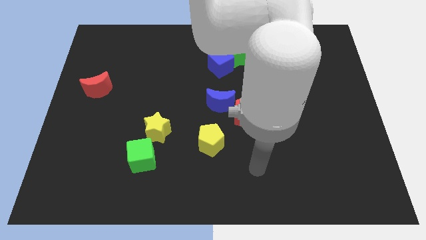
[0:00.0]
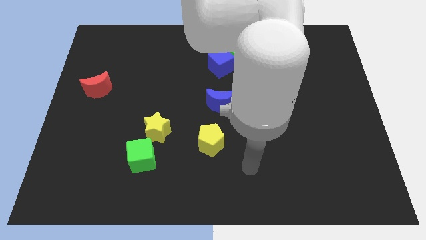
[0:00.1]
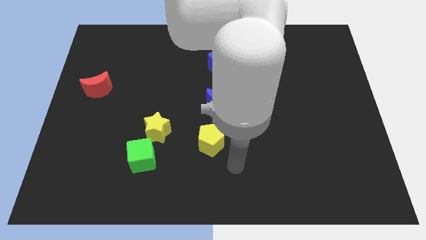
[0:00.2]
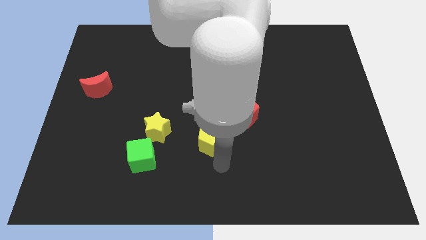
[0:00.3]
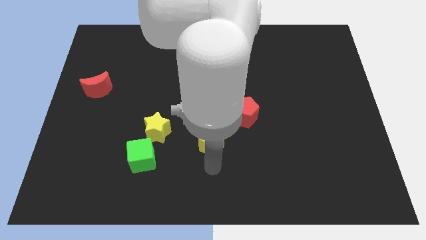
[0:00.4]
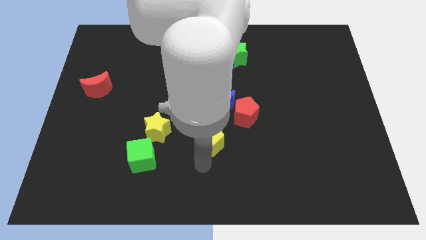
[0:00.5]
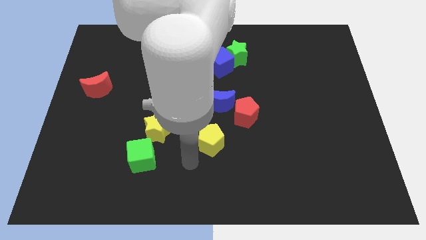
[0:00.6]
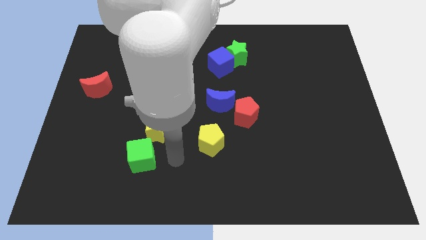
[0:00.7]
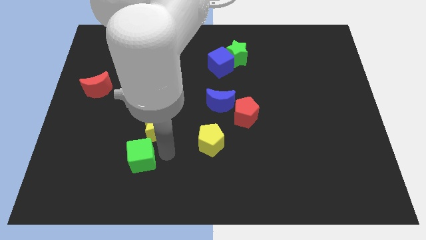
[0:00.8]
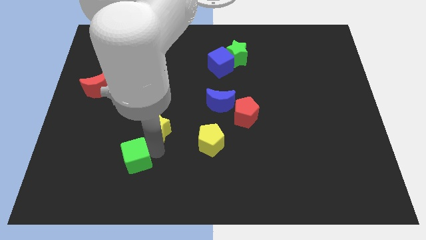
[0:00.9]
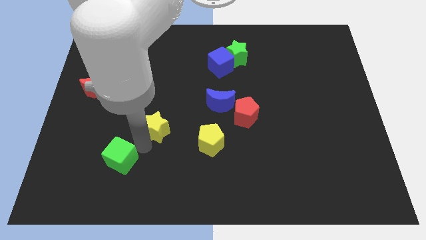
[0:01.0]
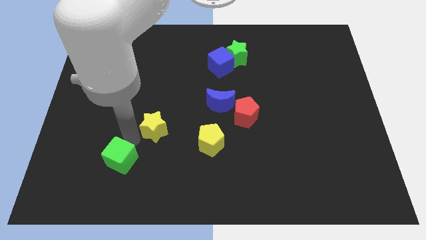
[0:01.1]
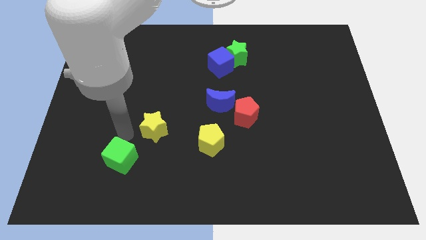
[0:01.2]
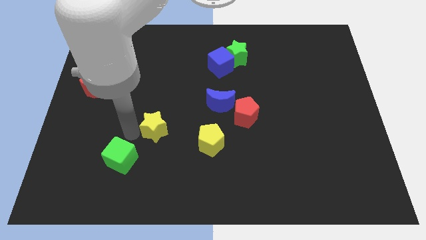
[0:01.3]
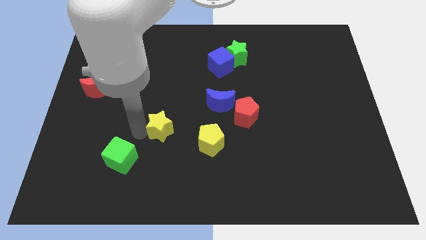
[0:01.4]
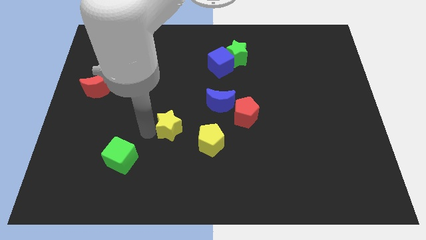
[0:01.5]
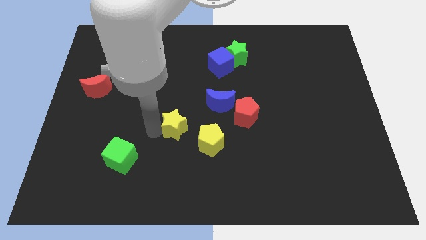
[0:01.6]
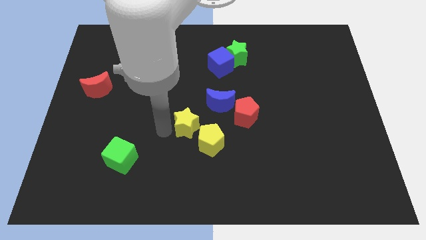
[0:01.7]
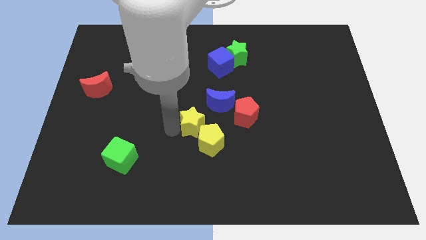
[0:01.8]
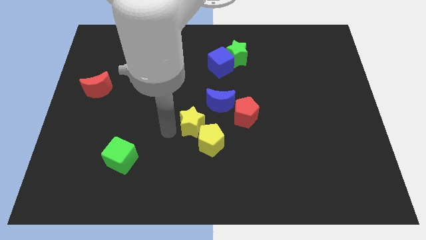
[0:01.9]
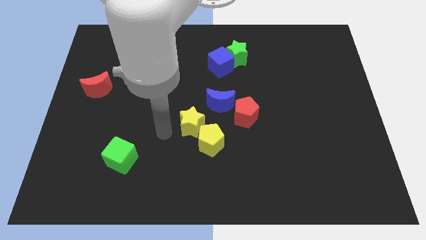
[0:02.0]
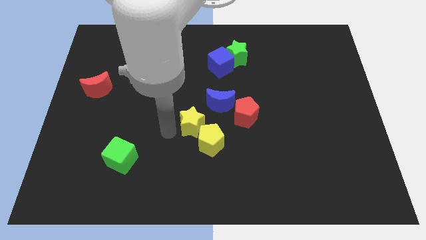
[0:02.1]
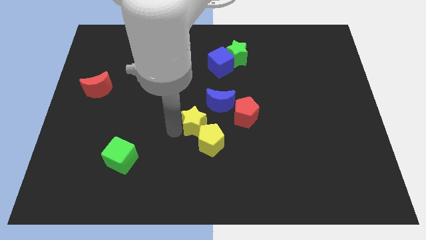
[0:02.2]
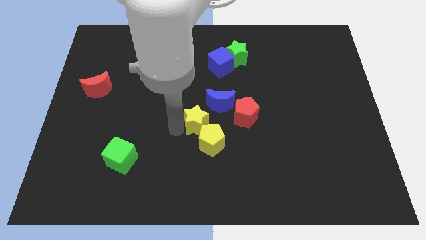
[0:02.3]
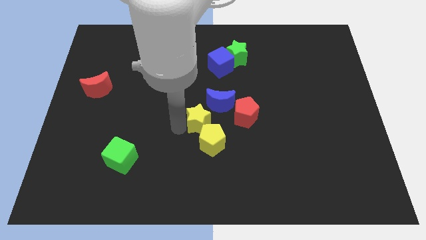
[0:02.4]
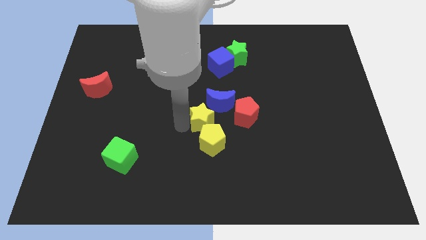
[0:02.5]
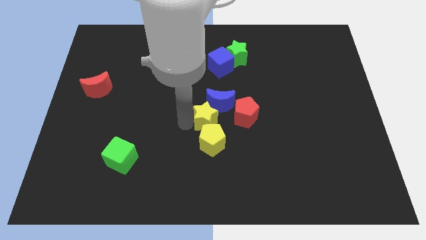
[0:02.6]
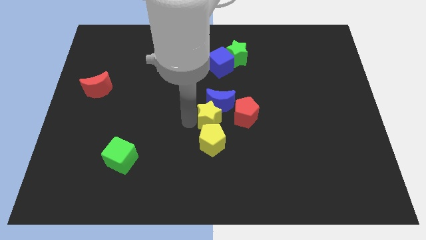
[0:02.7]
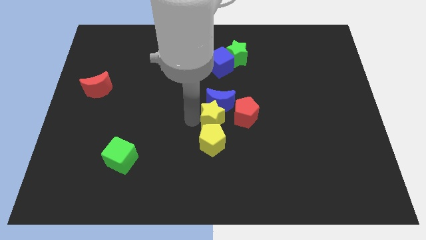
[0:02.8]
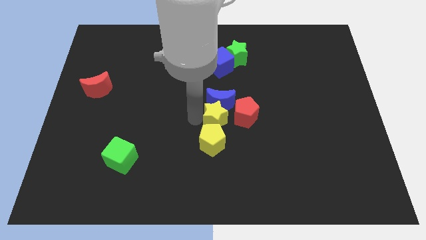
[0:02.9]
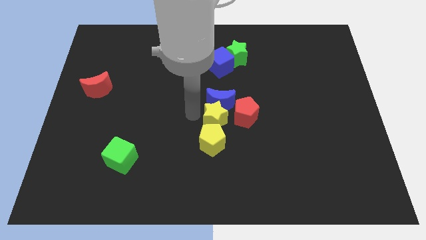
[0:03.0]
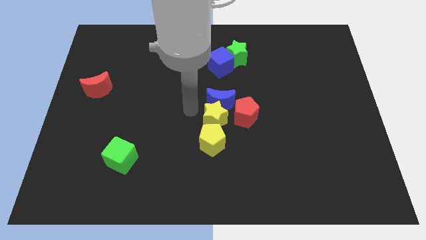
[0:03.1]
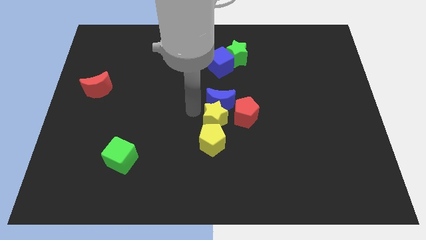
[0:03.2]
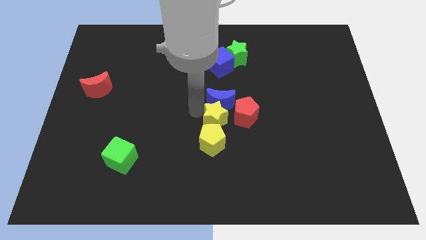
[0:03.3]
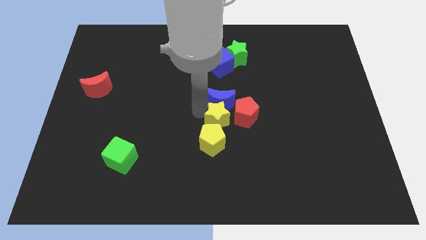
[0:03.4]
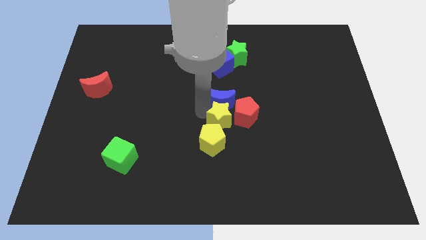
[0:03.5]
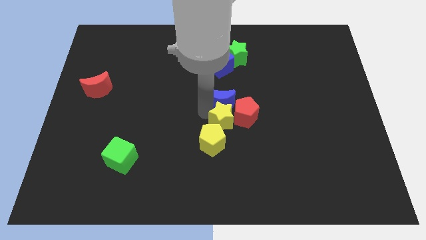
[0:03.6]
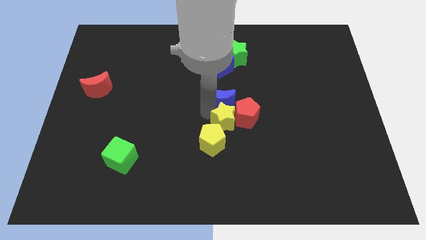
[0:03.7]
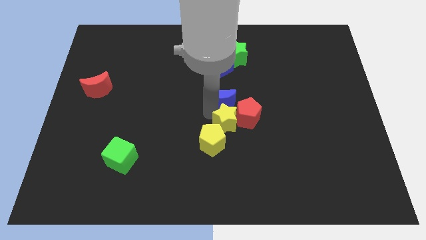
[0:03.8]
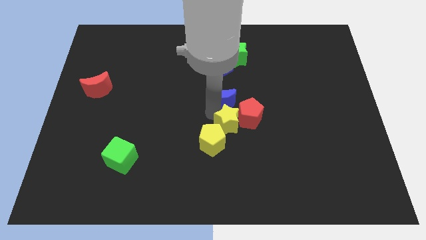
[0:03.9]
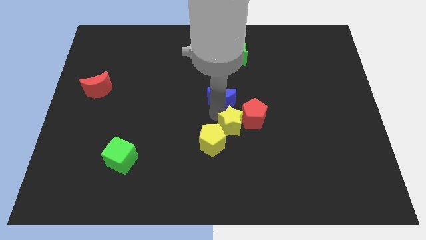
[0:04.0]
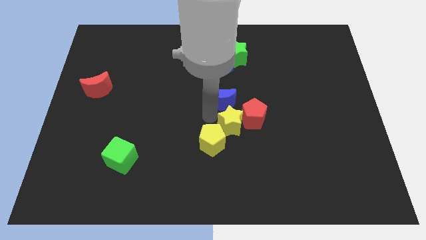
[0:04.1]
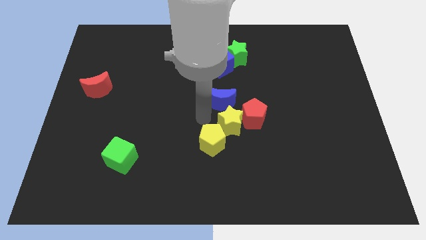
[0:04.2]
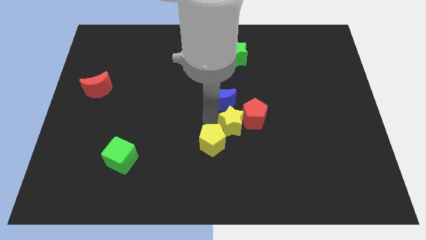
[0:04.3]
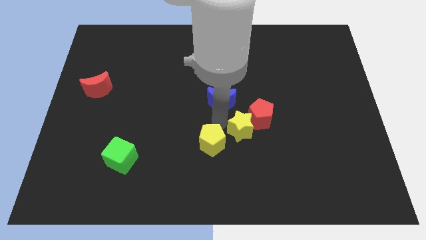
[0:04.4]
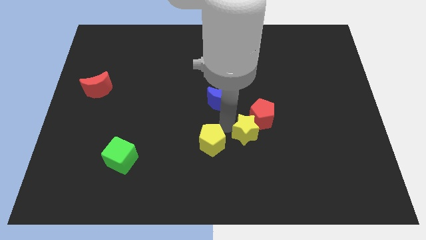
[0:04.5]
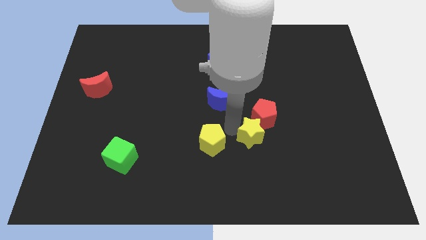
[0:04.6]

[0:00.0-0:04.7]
slide the yellow star to the right

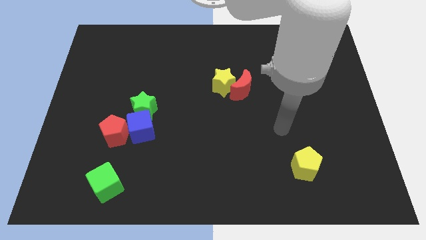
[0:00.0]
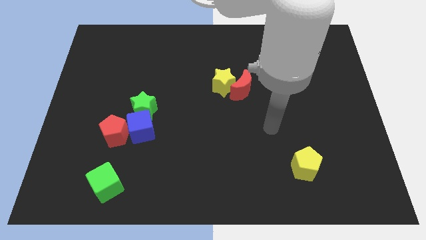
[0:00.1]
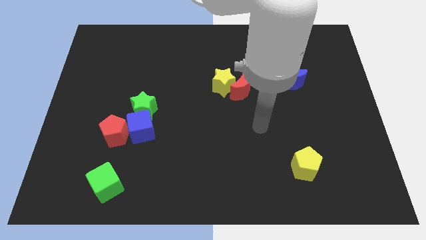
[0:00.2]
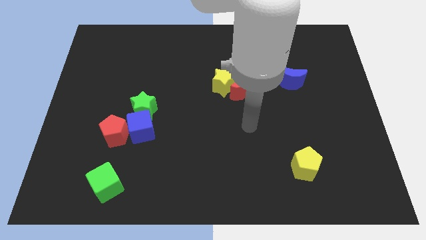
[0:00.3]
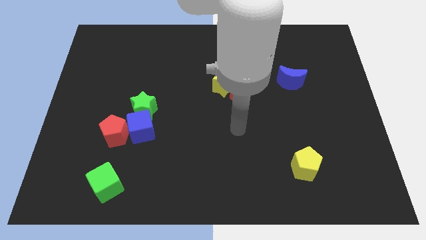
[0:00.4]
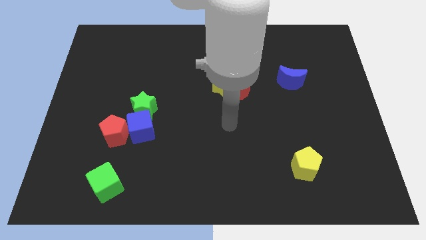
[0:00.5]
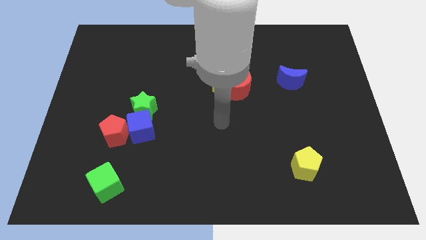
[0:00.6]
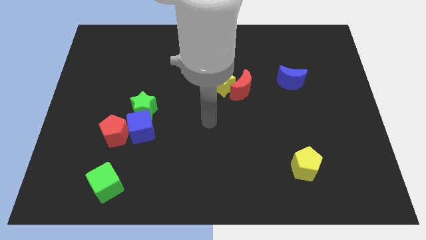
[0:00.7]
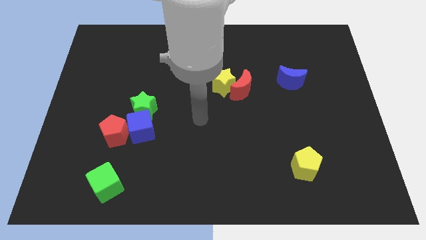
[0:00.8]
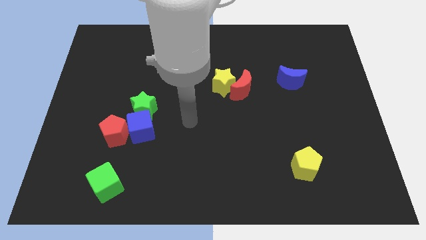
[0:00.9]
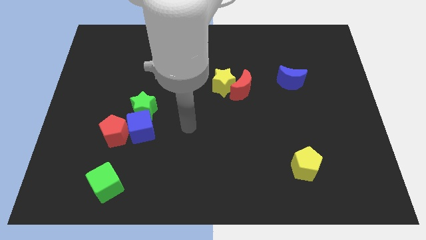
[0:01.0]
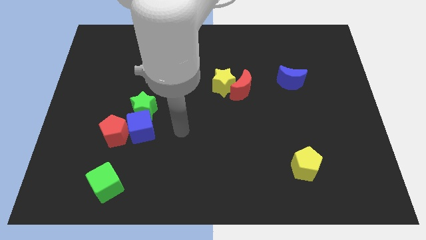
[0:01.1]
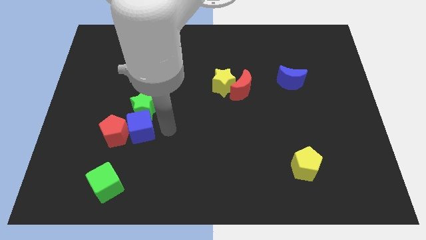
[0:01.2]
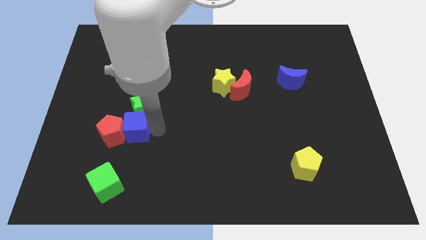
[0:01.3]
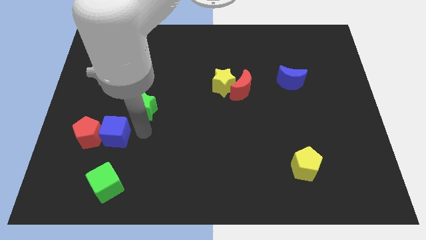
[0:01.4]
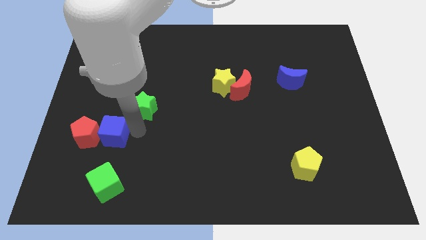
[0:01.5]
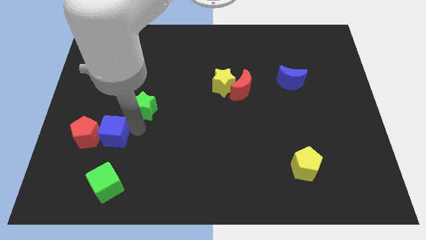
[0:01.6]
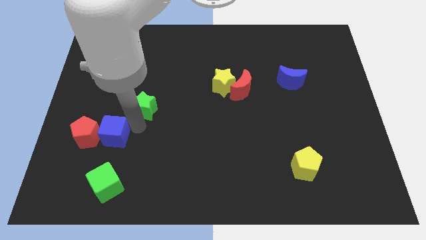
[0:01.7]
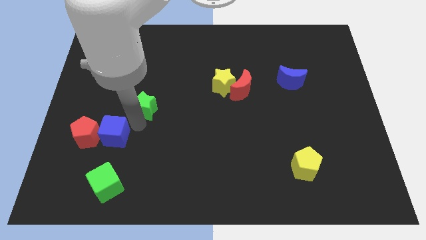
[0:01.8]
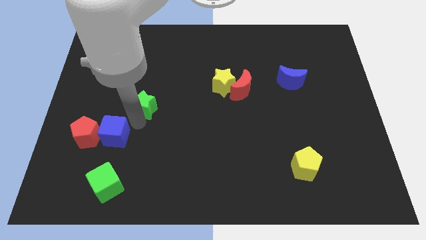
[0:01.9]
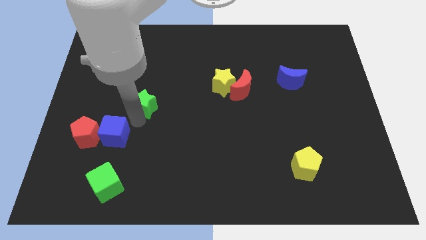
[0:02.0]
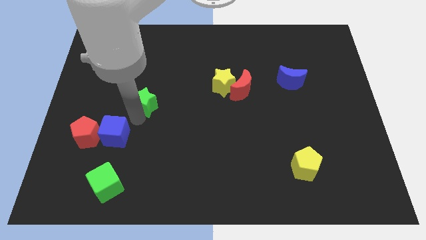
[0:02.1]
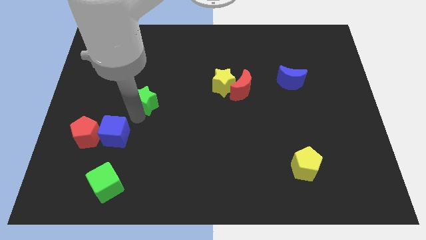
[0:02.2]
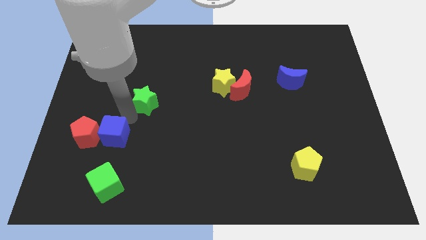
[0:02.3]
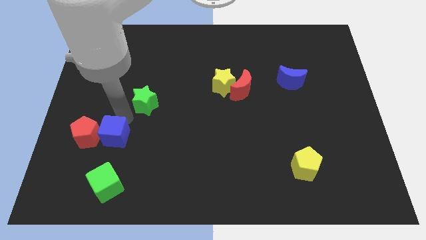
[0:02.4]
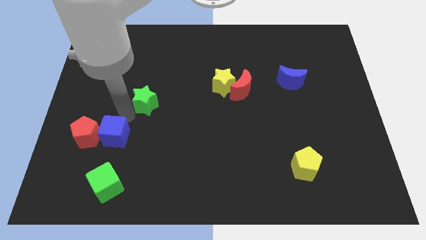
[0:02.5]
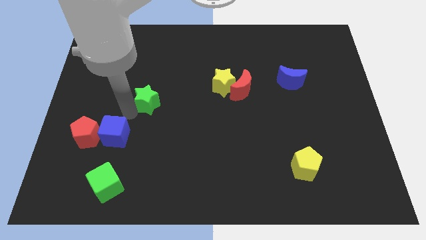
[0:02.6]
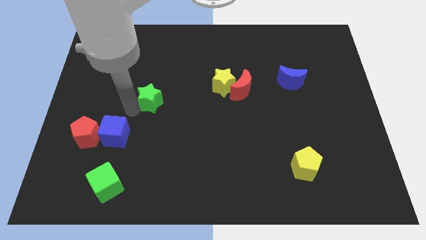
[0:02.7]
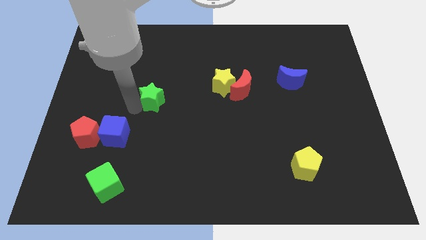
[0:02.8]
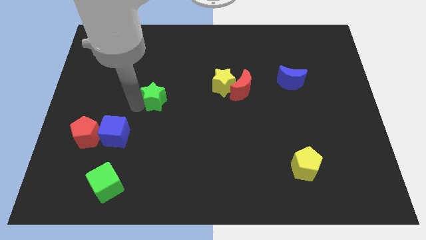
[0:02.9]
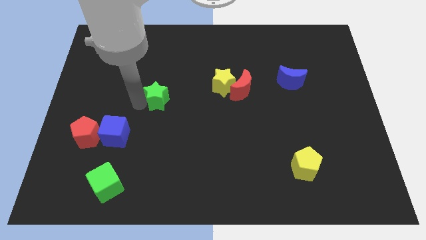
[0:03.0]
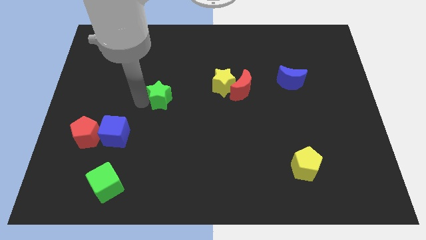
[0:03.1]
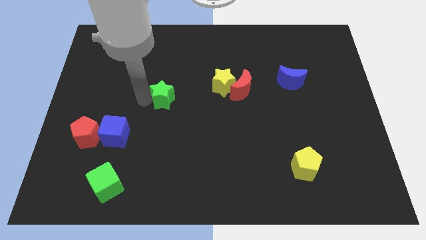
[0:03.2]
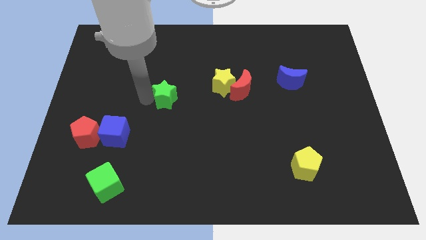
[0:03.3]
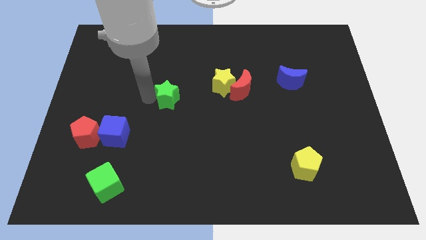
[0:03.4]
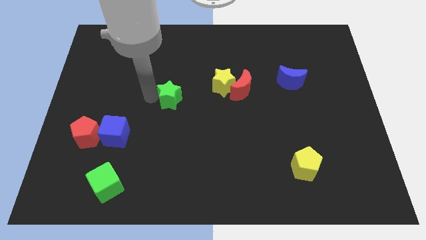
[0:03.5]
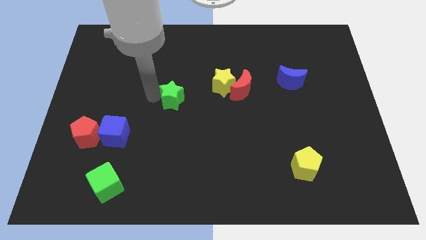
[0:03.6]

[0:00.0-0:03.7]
slide the green star a little up and right diagonally
